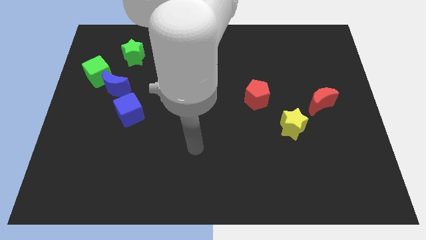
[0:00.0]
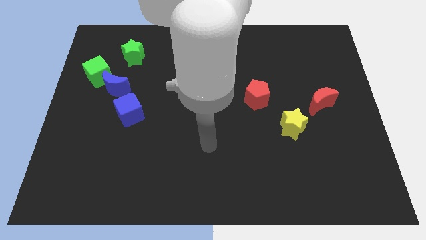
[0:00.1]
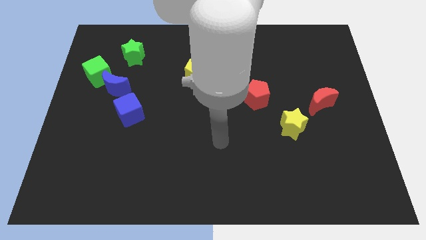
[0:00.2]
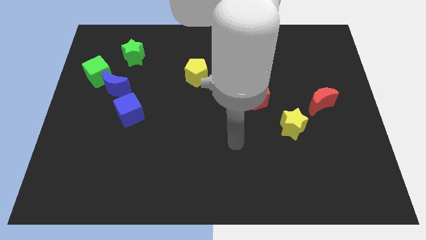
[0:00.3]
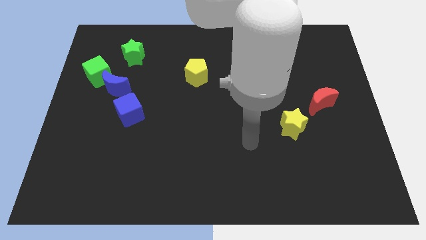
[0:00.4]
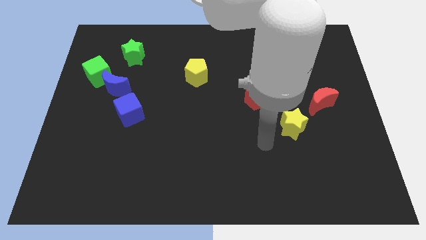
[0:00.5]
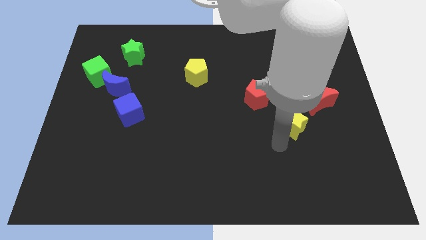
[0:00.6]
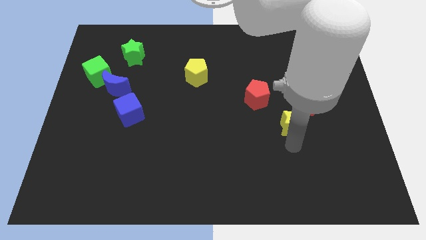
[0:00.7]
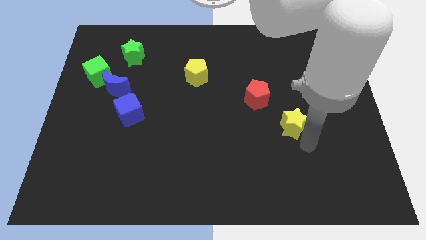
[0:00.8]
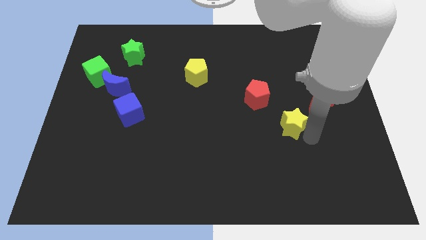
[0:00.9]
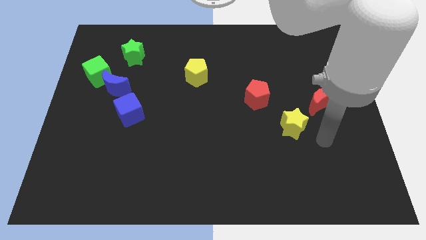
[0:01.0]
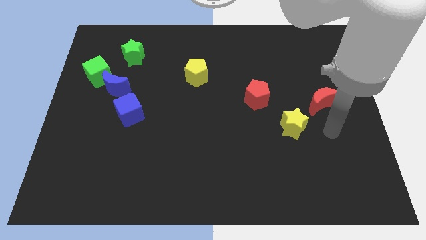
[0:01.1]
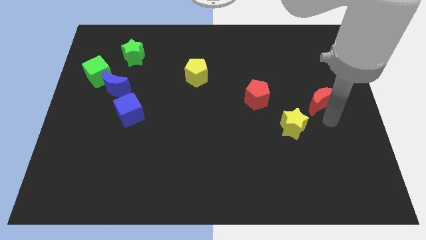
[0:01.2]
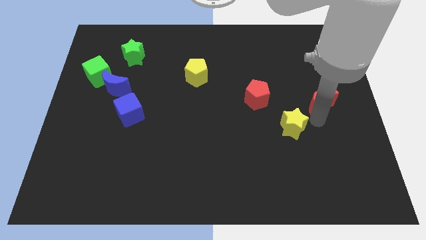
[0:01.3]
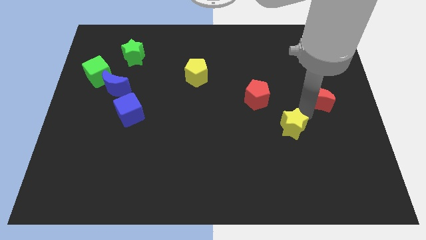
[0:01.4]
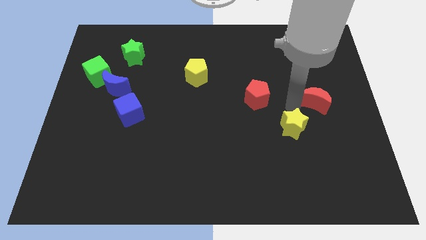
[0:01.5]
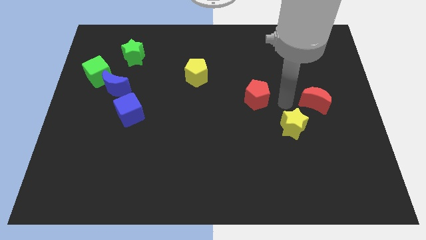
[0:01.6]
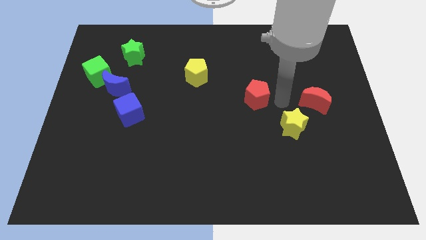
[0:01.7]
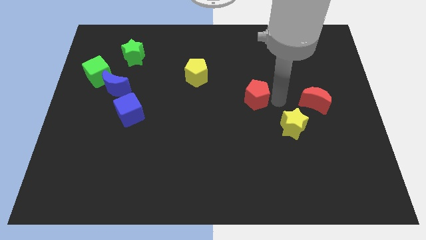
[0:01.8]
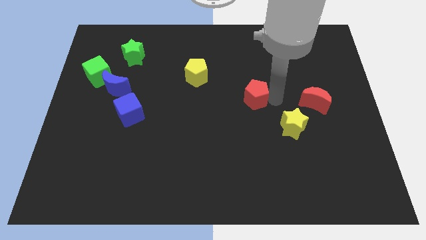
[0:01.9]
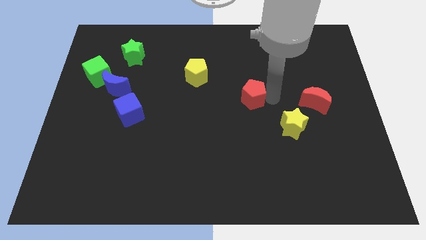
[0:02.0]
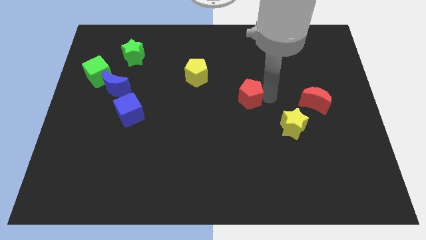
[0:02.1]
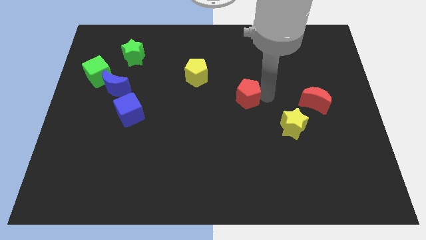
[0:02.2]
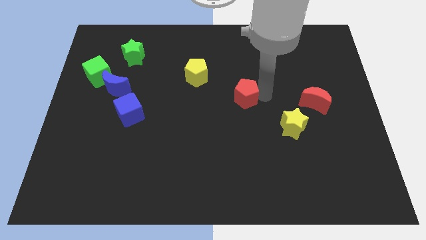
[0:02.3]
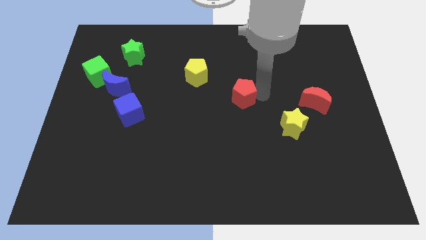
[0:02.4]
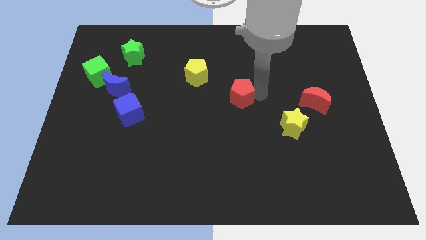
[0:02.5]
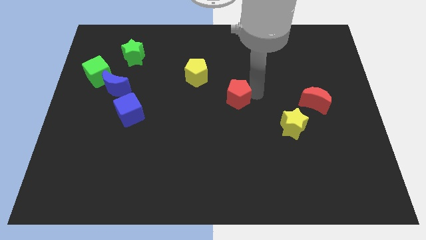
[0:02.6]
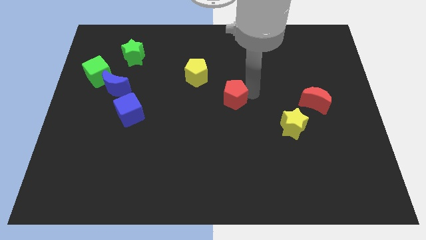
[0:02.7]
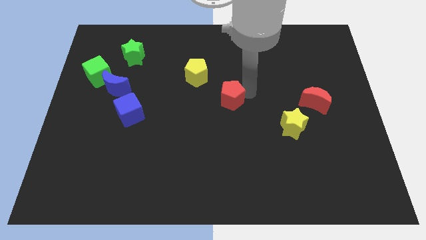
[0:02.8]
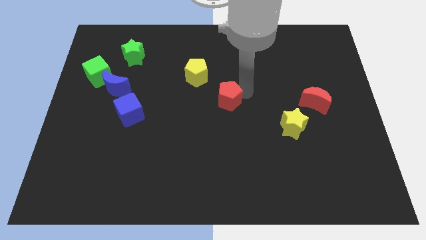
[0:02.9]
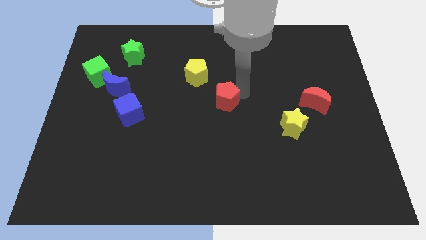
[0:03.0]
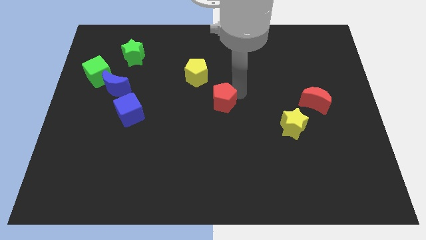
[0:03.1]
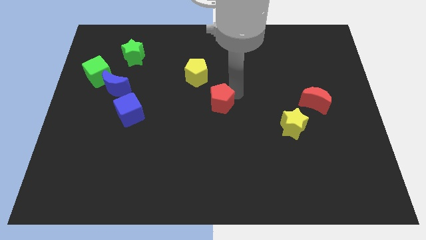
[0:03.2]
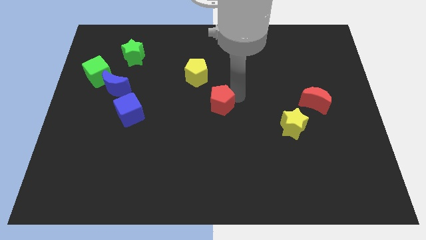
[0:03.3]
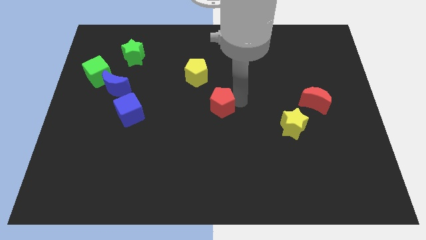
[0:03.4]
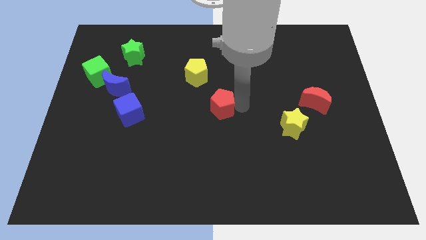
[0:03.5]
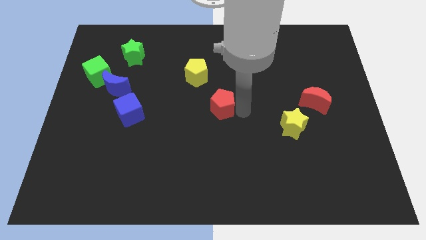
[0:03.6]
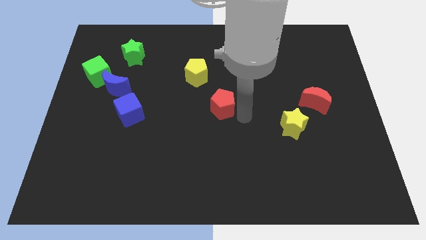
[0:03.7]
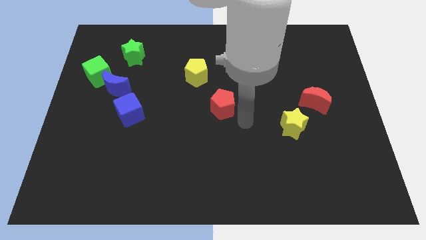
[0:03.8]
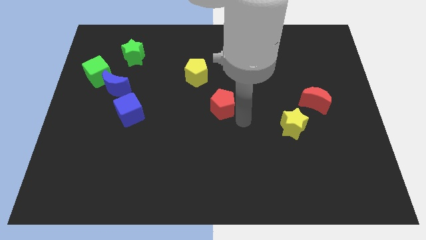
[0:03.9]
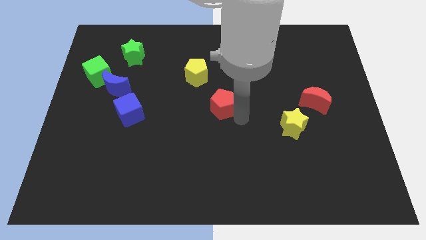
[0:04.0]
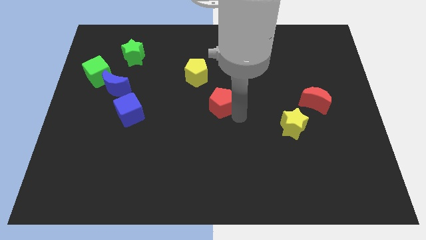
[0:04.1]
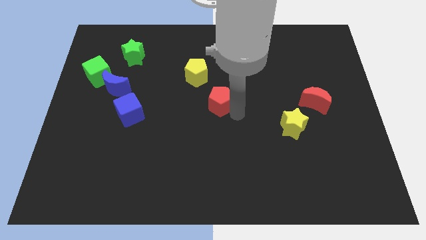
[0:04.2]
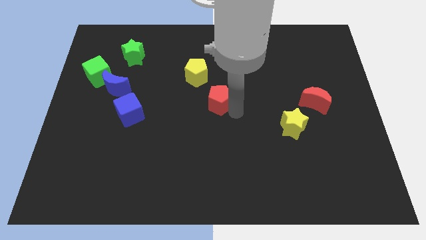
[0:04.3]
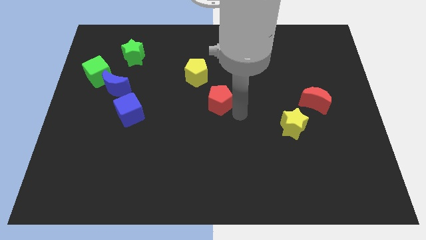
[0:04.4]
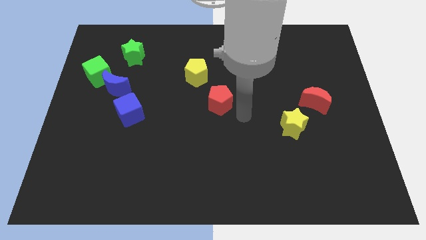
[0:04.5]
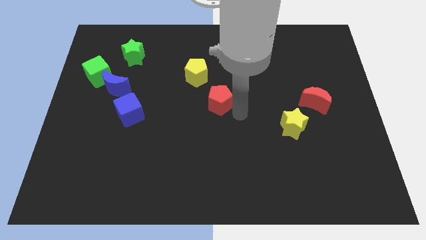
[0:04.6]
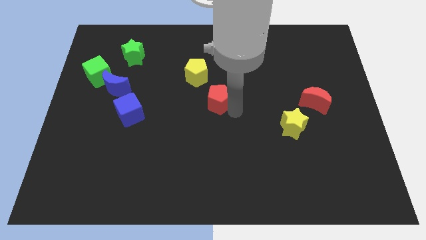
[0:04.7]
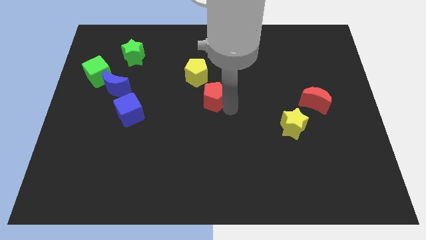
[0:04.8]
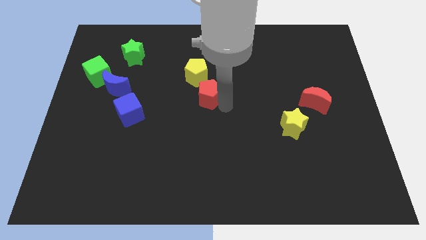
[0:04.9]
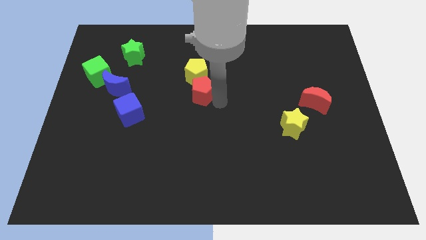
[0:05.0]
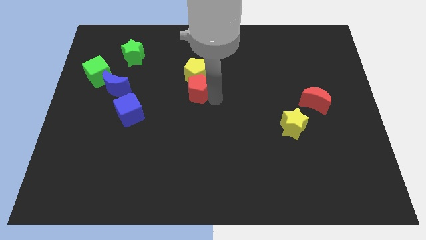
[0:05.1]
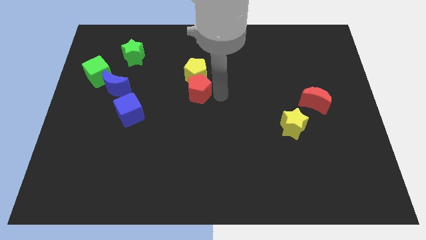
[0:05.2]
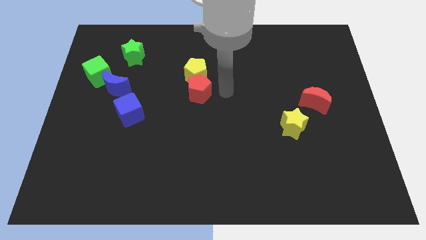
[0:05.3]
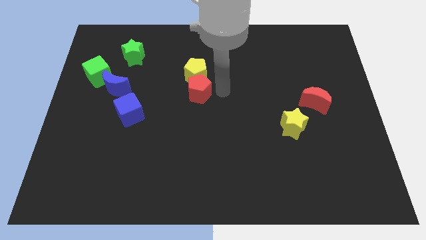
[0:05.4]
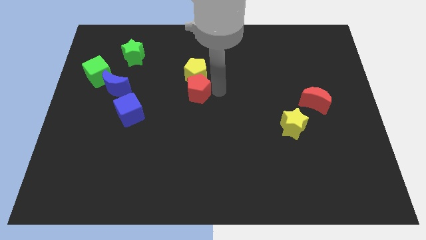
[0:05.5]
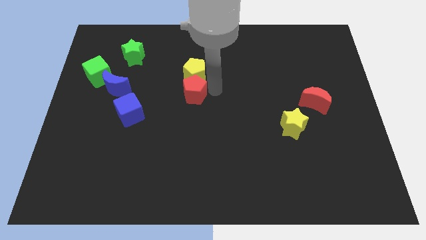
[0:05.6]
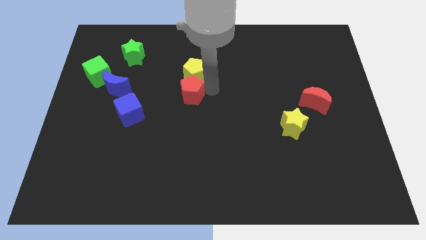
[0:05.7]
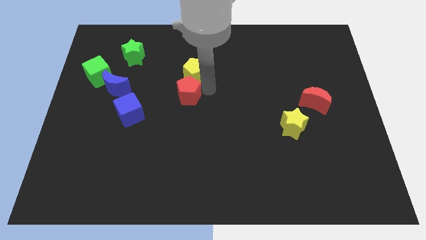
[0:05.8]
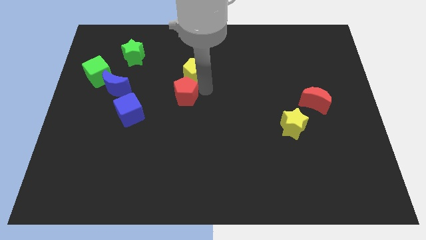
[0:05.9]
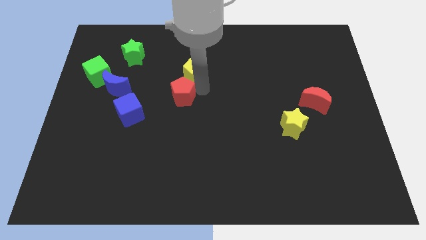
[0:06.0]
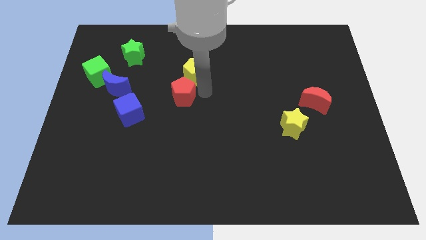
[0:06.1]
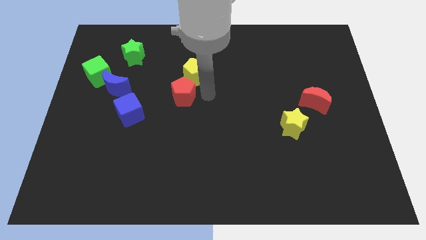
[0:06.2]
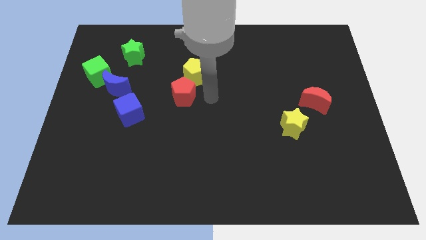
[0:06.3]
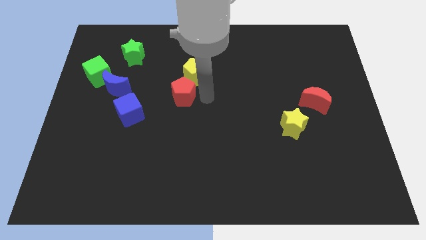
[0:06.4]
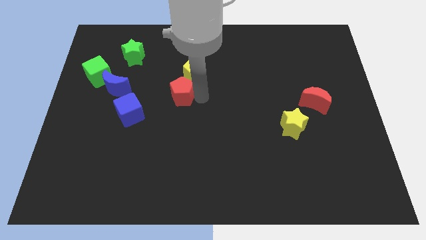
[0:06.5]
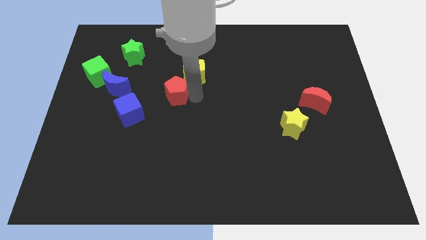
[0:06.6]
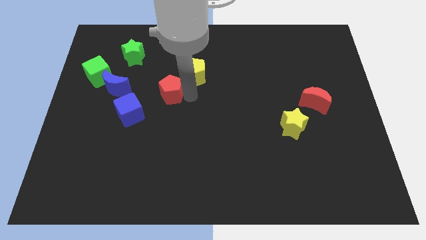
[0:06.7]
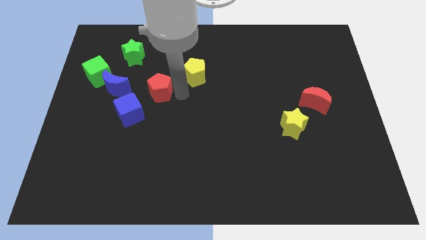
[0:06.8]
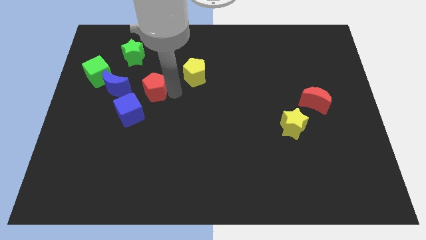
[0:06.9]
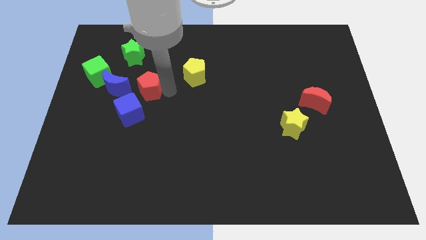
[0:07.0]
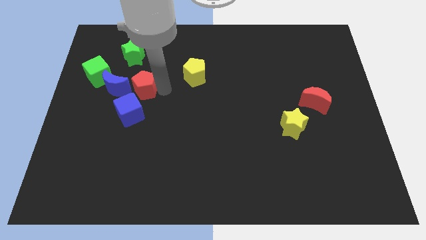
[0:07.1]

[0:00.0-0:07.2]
slide the red pentagon below the green star
